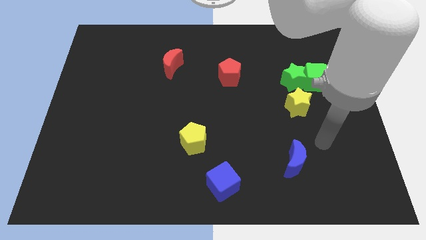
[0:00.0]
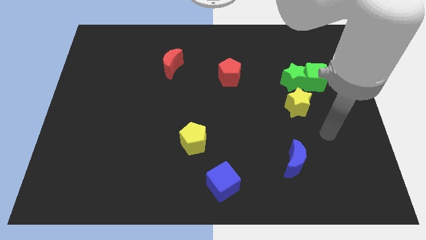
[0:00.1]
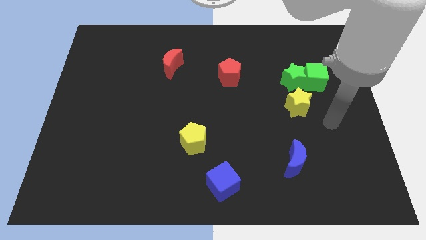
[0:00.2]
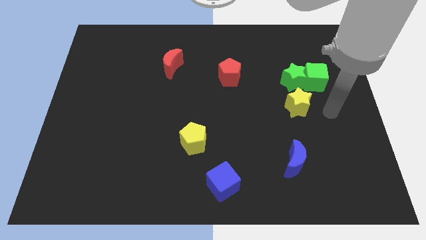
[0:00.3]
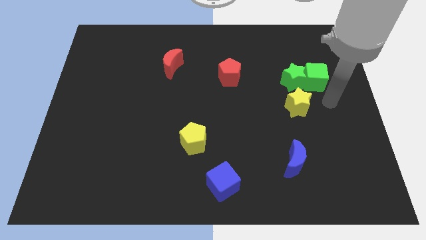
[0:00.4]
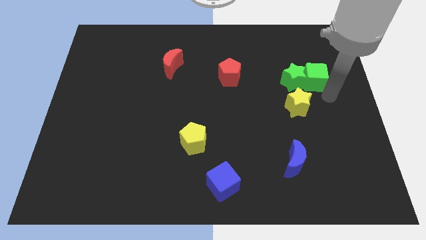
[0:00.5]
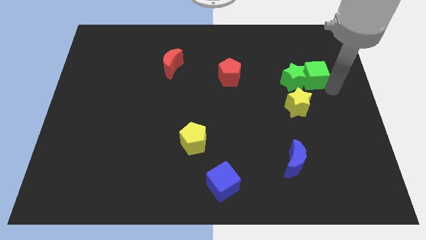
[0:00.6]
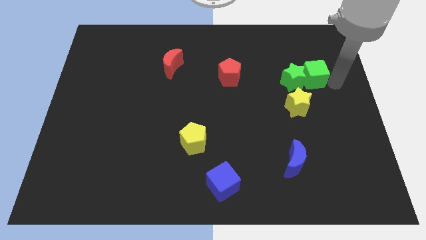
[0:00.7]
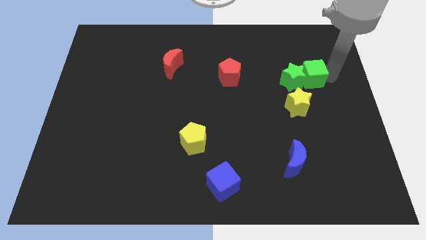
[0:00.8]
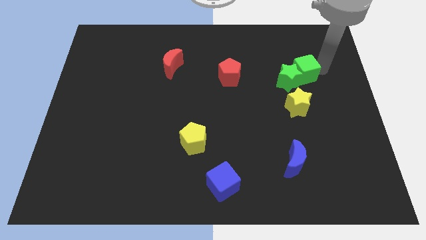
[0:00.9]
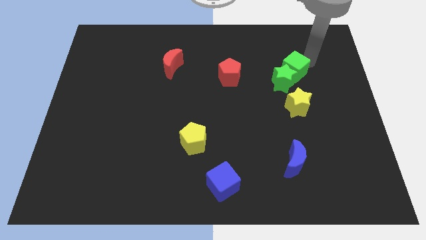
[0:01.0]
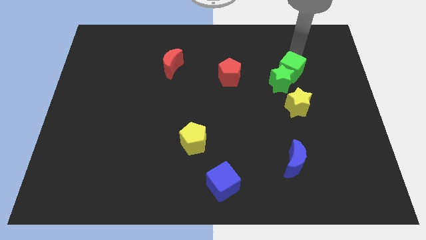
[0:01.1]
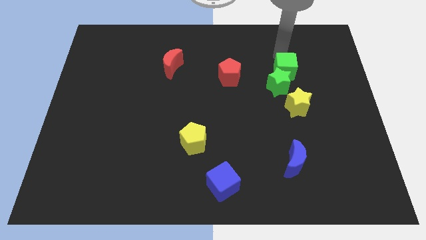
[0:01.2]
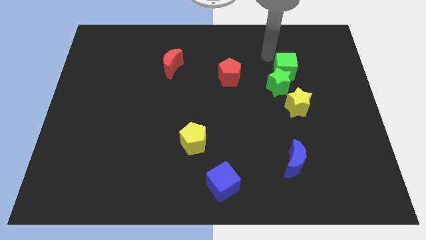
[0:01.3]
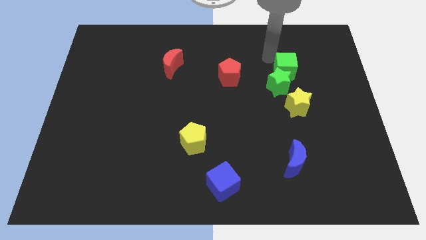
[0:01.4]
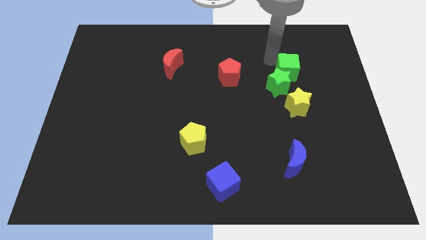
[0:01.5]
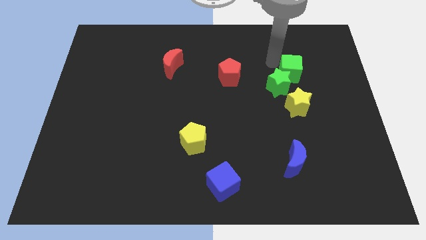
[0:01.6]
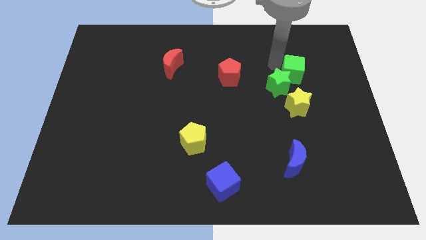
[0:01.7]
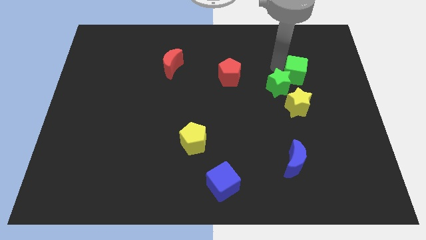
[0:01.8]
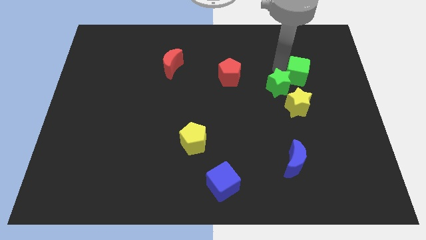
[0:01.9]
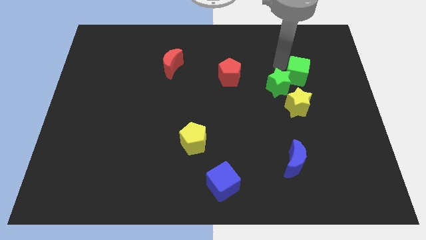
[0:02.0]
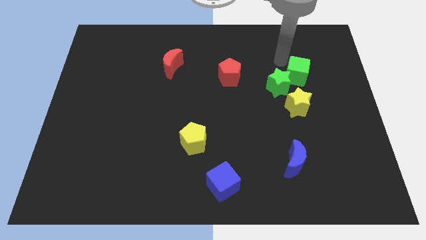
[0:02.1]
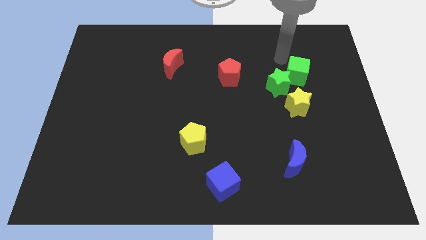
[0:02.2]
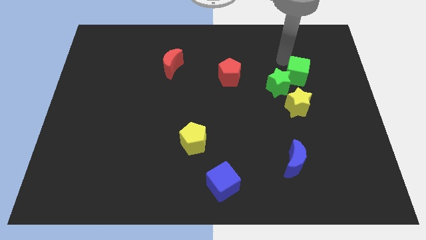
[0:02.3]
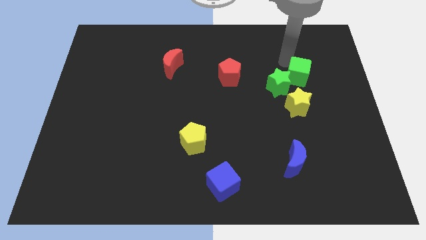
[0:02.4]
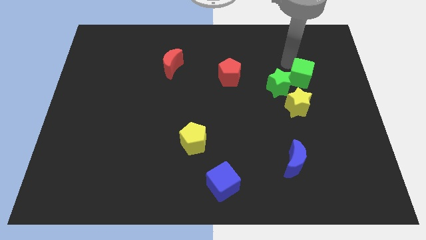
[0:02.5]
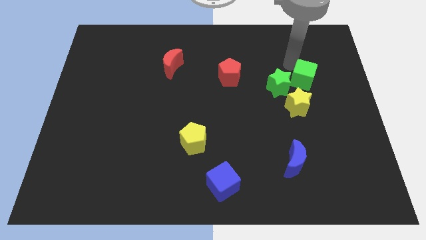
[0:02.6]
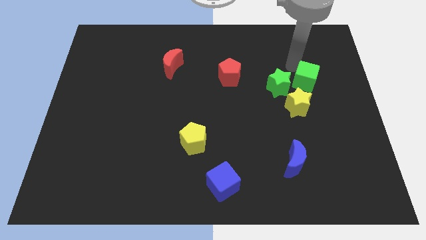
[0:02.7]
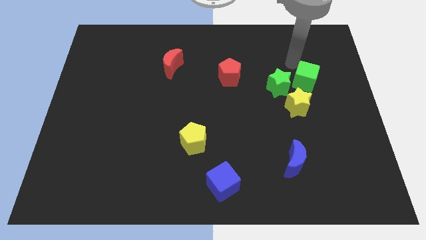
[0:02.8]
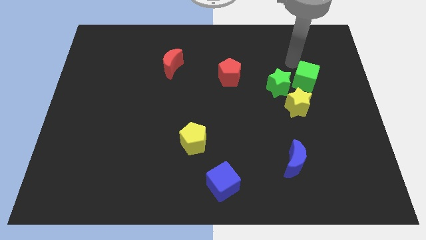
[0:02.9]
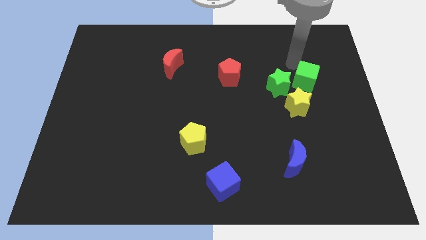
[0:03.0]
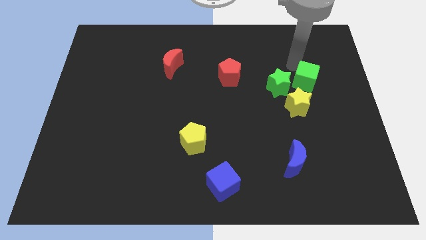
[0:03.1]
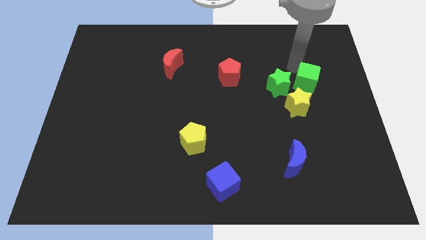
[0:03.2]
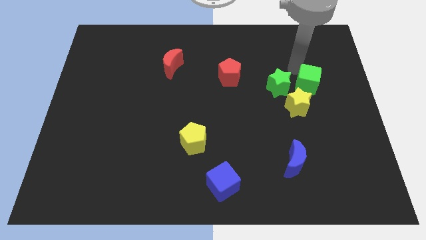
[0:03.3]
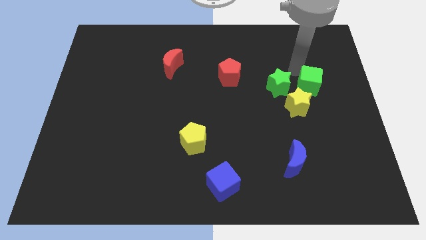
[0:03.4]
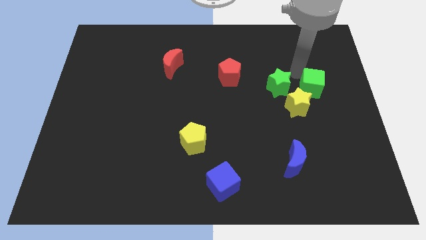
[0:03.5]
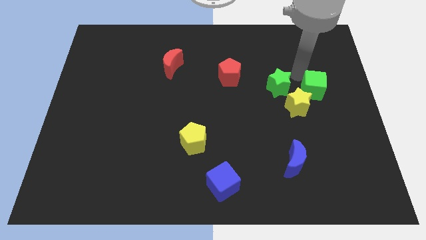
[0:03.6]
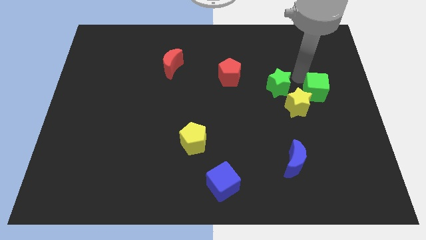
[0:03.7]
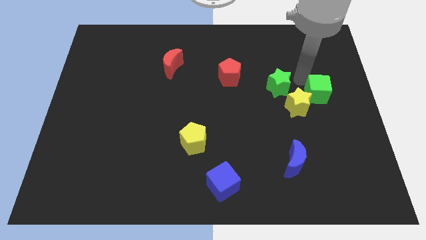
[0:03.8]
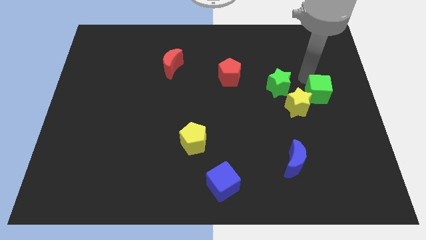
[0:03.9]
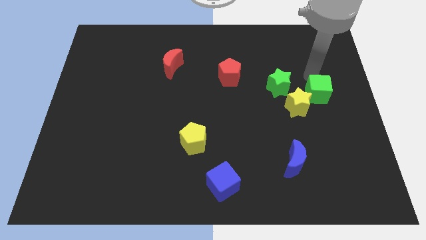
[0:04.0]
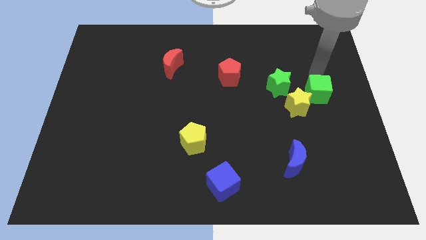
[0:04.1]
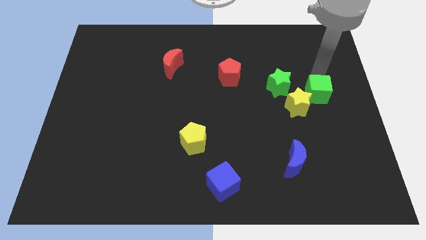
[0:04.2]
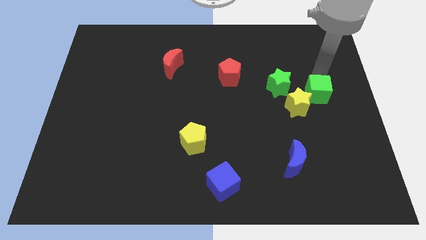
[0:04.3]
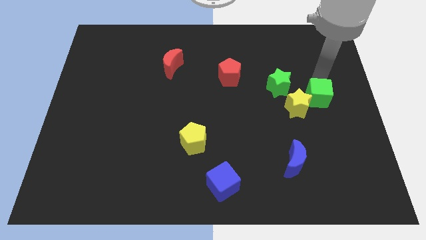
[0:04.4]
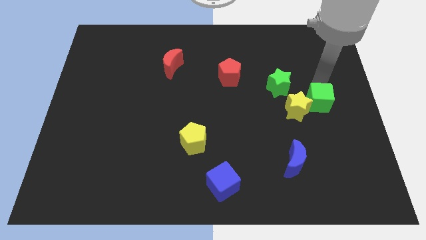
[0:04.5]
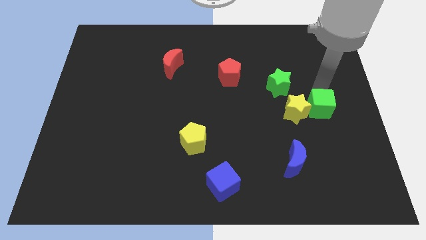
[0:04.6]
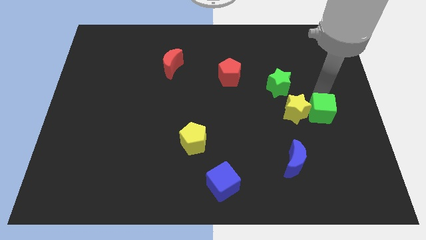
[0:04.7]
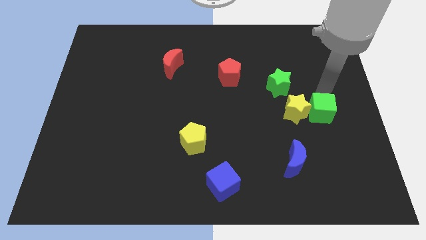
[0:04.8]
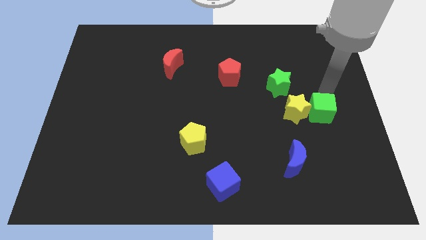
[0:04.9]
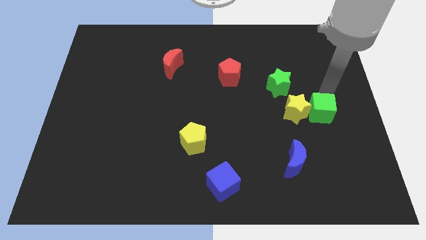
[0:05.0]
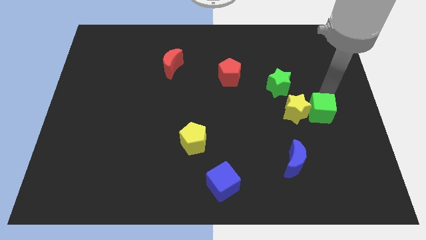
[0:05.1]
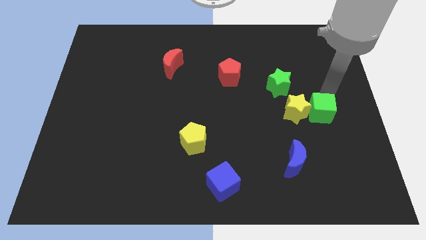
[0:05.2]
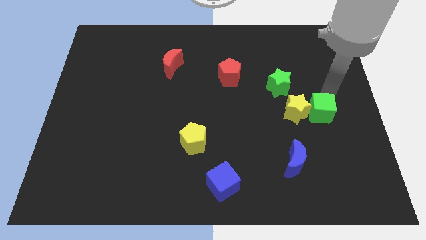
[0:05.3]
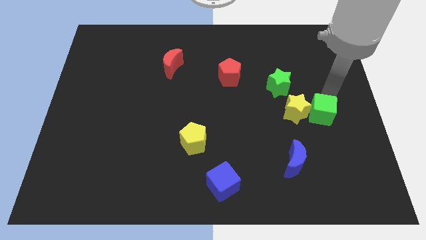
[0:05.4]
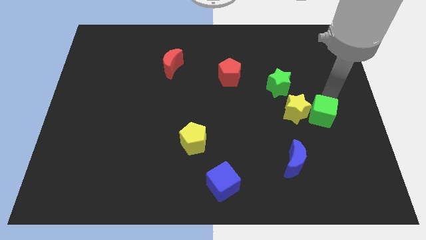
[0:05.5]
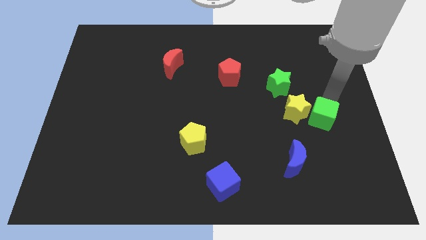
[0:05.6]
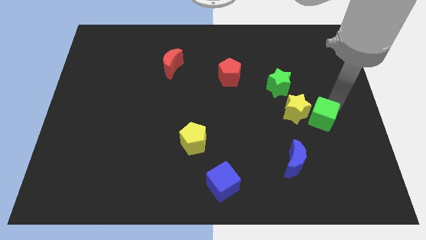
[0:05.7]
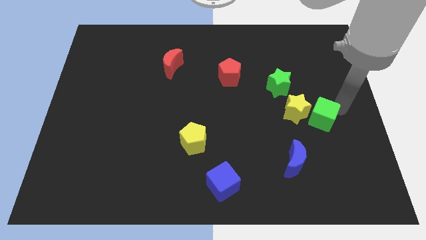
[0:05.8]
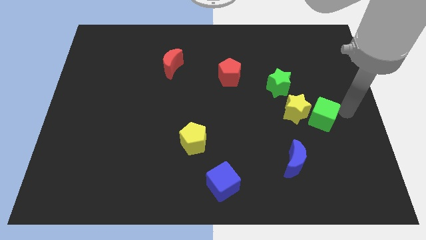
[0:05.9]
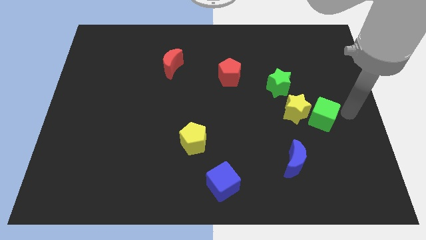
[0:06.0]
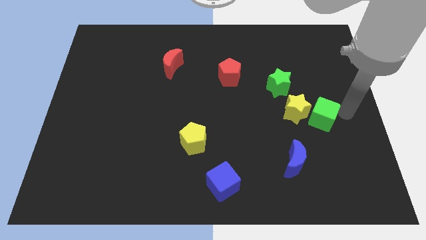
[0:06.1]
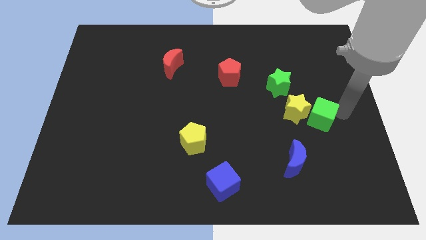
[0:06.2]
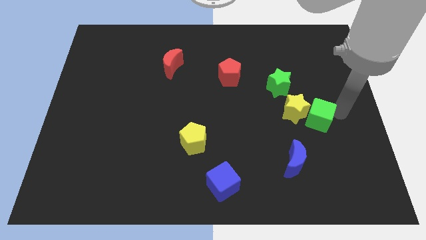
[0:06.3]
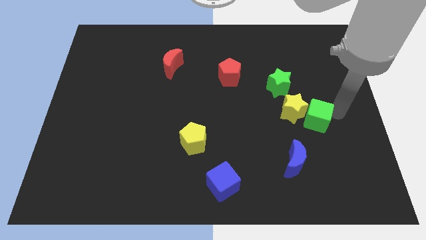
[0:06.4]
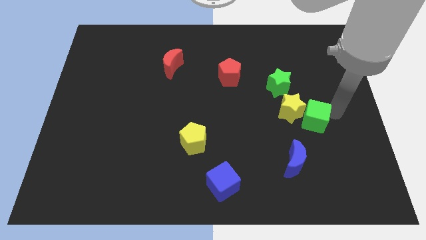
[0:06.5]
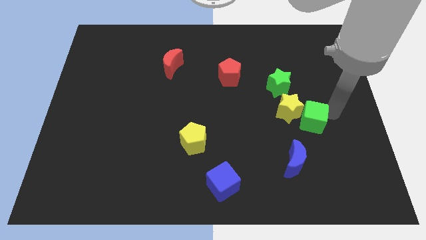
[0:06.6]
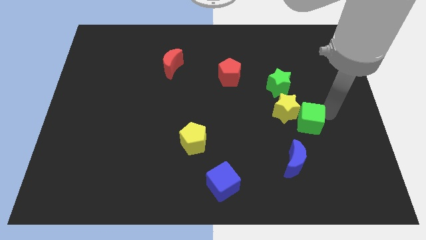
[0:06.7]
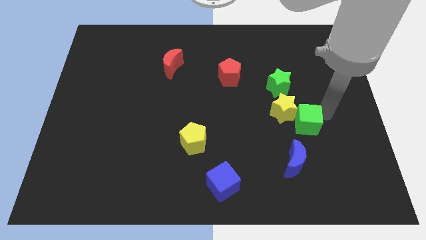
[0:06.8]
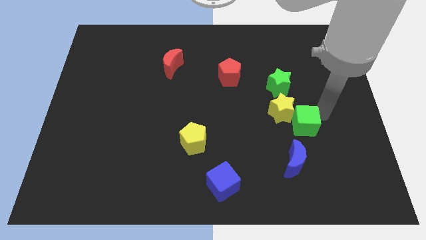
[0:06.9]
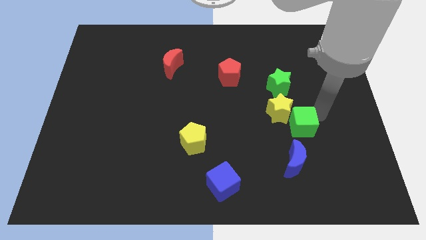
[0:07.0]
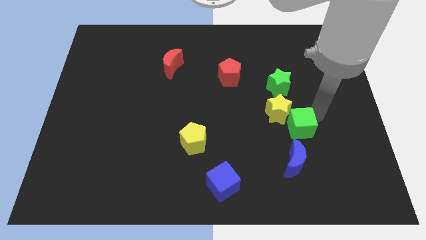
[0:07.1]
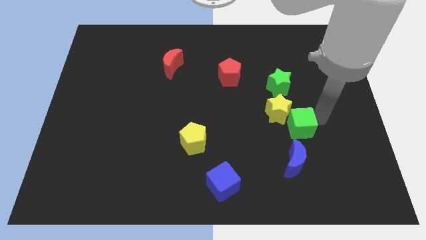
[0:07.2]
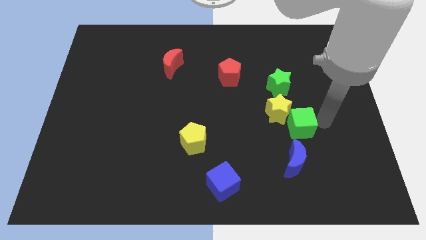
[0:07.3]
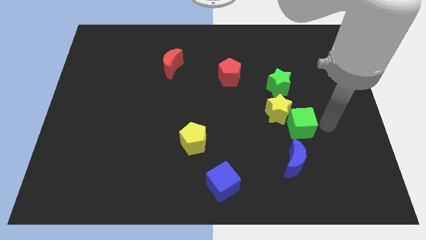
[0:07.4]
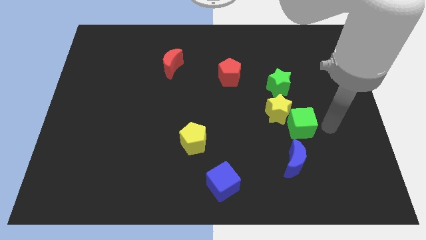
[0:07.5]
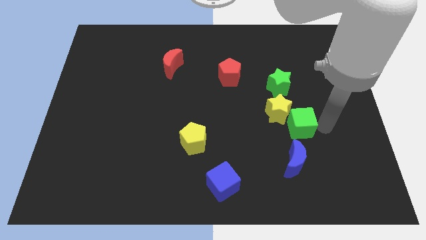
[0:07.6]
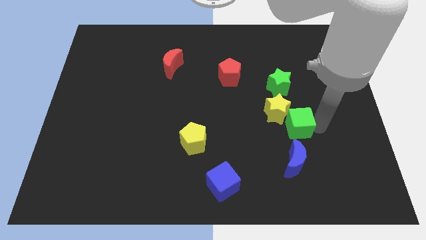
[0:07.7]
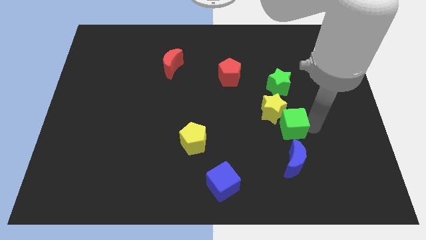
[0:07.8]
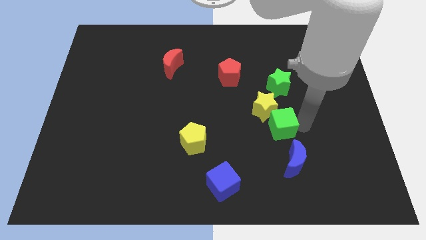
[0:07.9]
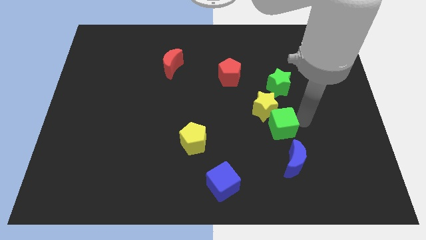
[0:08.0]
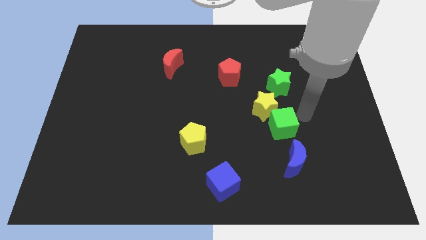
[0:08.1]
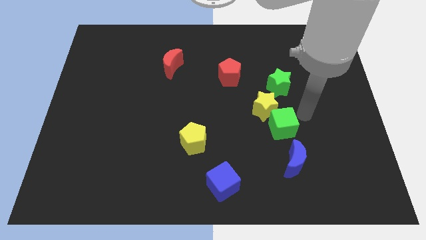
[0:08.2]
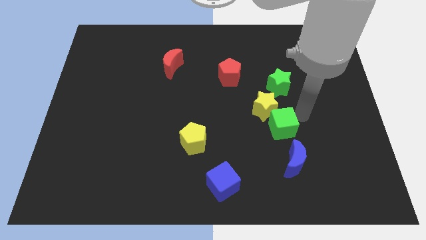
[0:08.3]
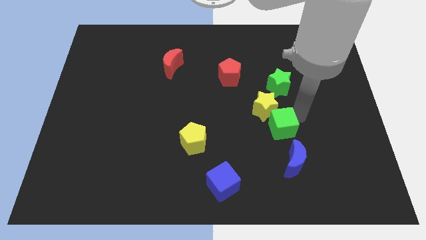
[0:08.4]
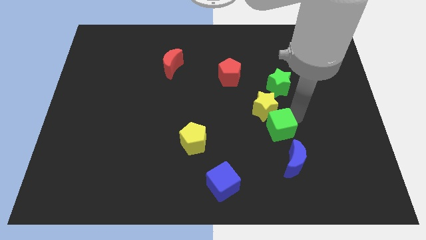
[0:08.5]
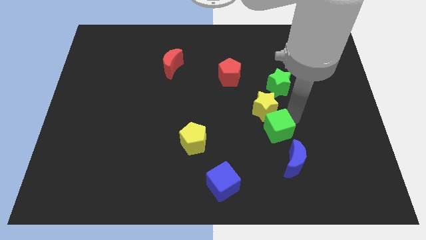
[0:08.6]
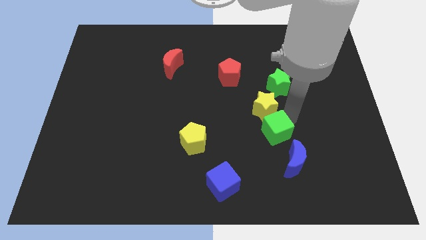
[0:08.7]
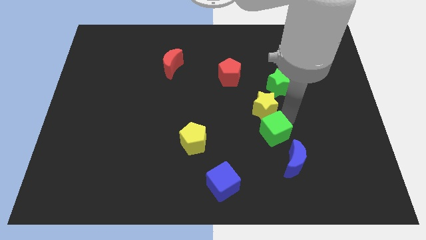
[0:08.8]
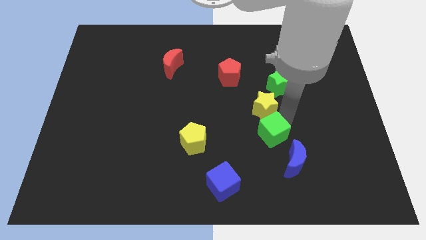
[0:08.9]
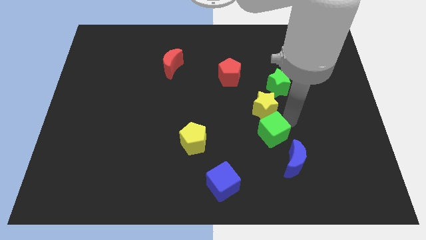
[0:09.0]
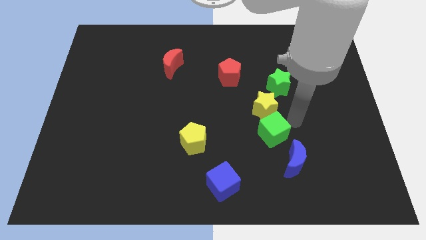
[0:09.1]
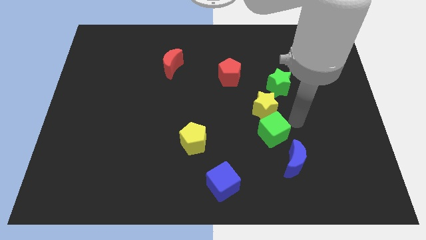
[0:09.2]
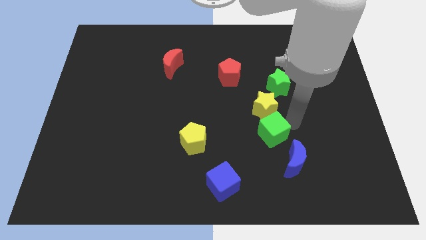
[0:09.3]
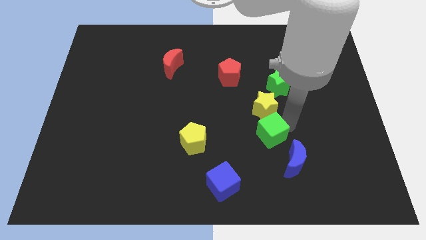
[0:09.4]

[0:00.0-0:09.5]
slide the green cube downwards and left
